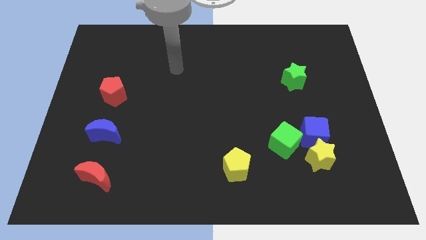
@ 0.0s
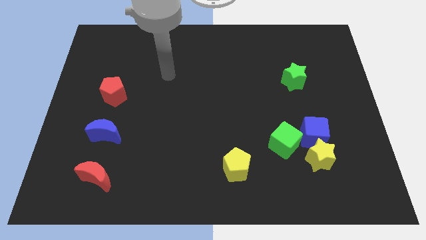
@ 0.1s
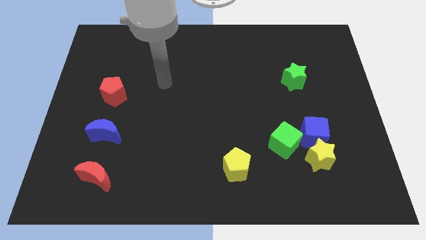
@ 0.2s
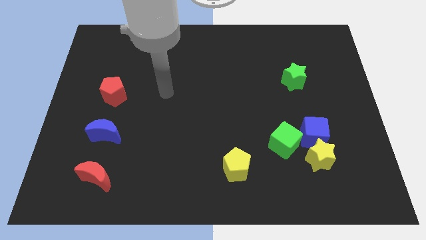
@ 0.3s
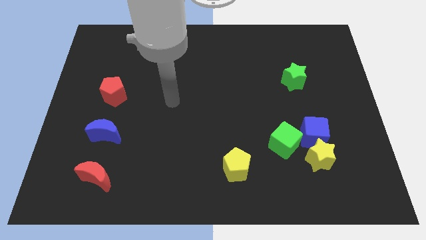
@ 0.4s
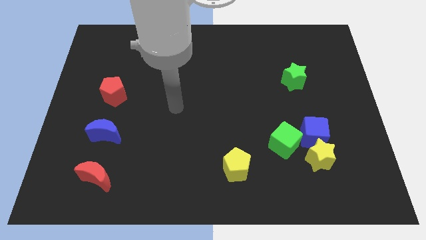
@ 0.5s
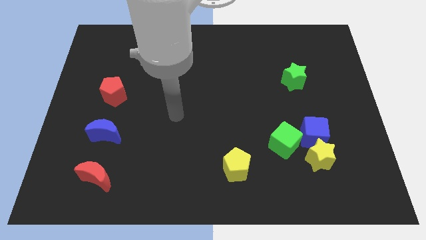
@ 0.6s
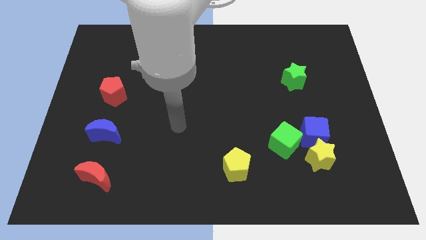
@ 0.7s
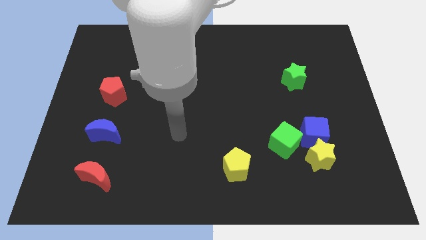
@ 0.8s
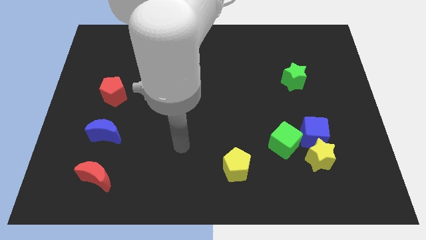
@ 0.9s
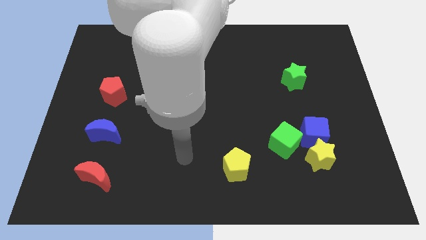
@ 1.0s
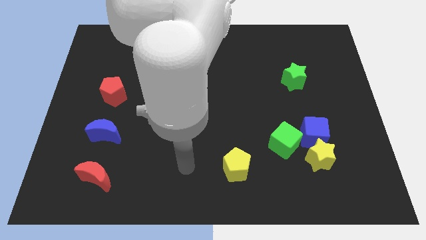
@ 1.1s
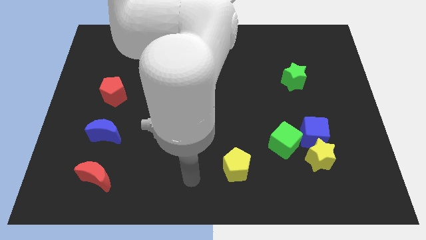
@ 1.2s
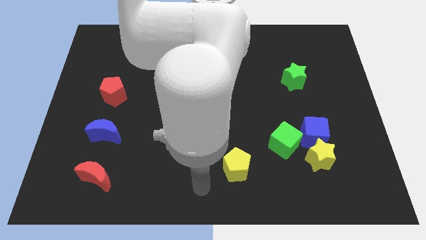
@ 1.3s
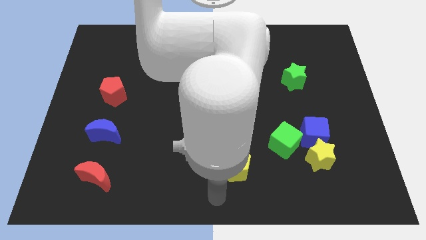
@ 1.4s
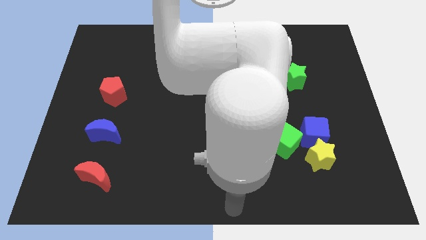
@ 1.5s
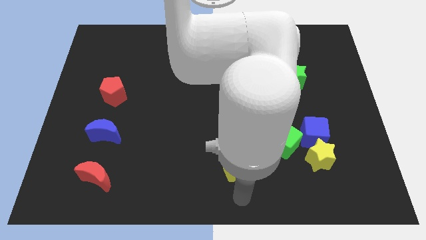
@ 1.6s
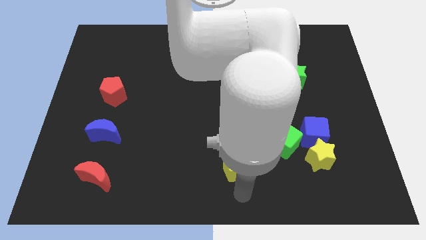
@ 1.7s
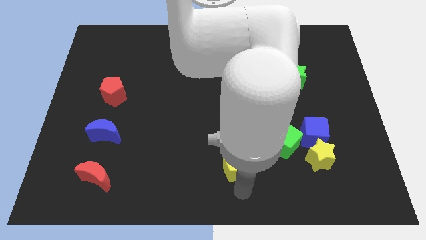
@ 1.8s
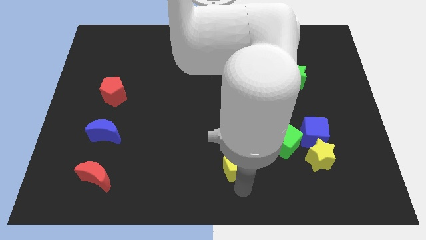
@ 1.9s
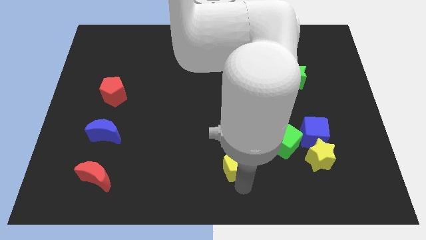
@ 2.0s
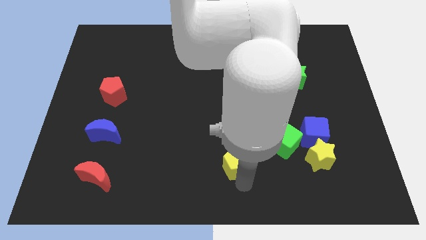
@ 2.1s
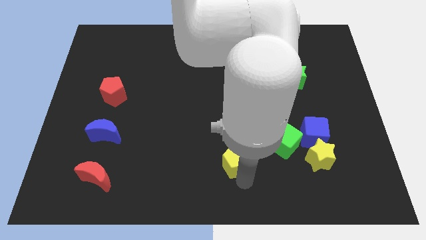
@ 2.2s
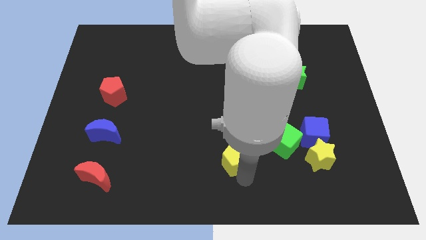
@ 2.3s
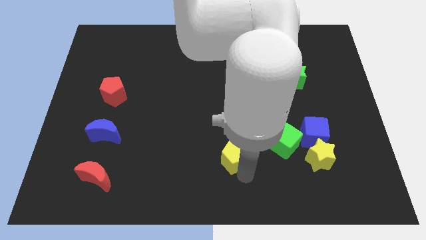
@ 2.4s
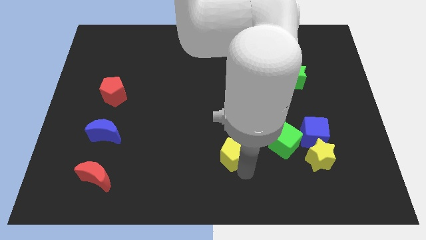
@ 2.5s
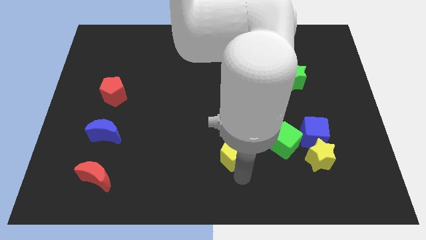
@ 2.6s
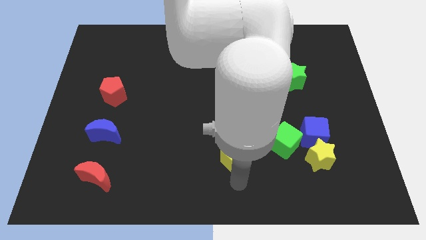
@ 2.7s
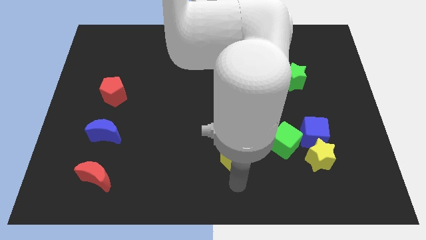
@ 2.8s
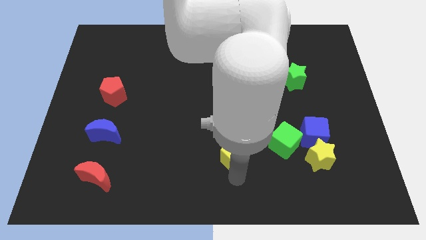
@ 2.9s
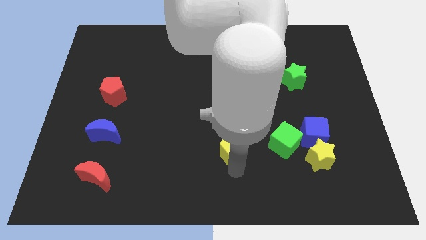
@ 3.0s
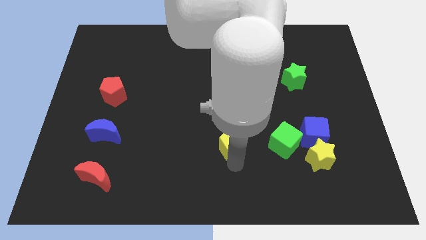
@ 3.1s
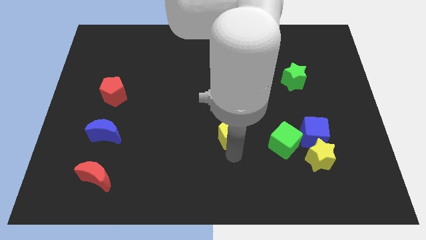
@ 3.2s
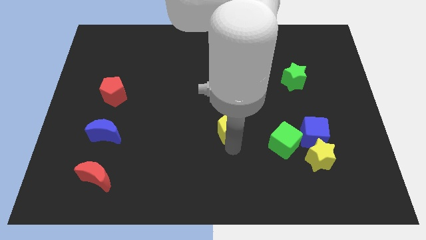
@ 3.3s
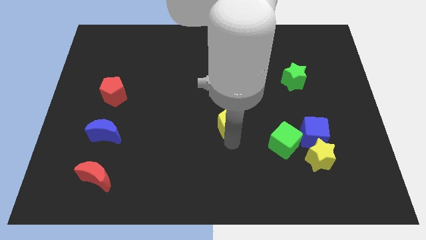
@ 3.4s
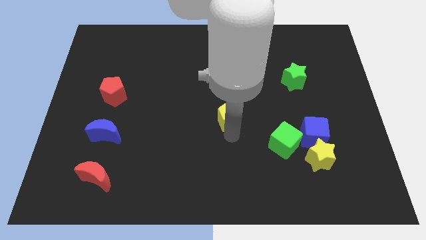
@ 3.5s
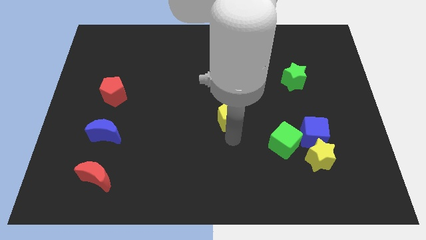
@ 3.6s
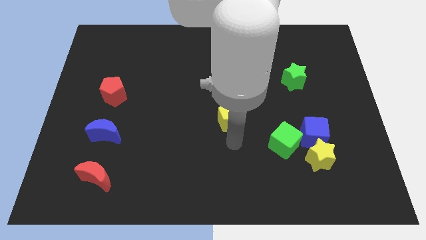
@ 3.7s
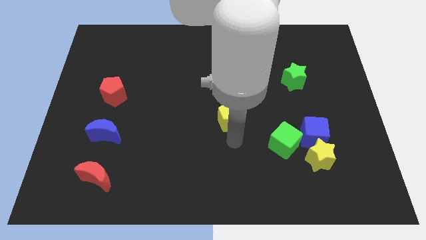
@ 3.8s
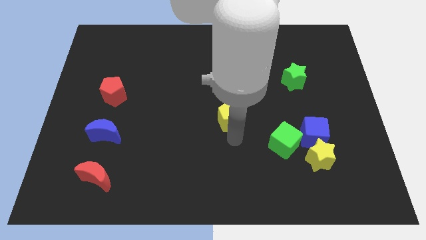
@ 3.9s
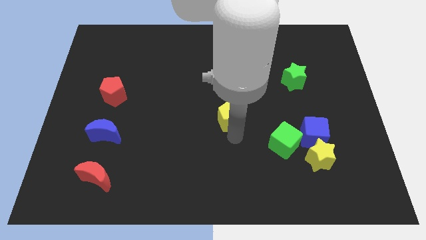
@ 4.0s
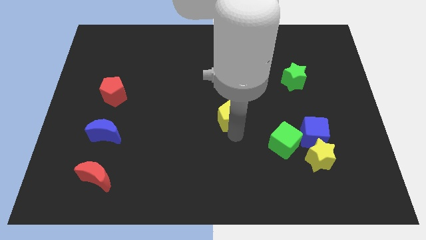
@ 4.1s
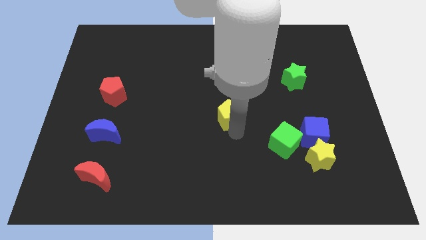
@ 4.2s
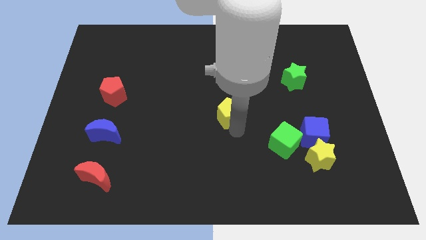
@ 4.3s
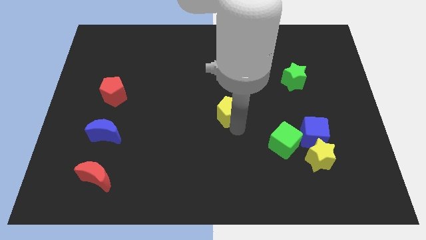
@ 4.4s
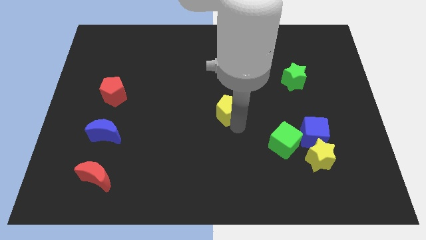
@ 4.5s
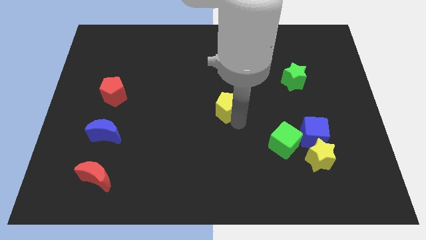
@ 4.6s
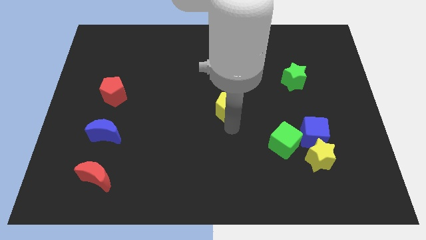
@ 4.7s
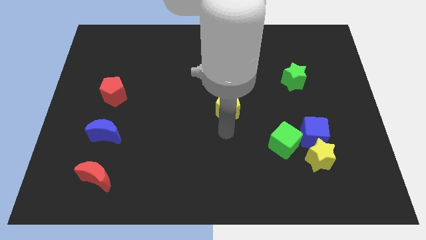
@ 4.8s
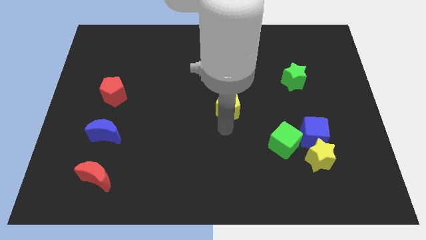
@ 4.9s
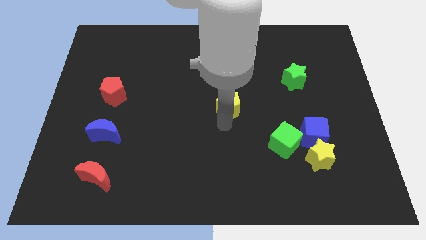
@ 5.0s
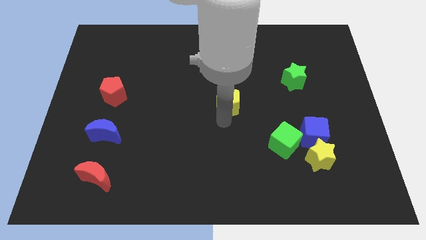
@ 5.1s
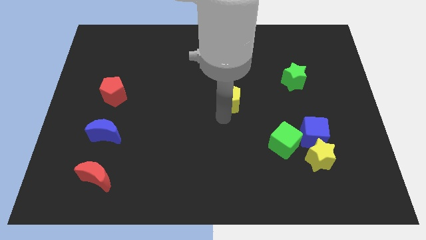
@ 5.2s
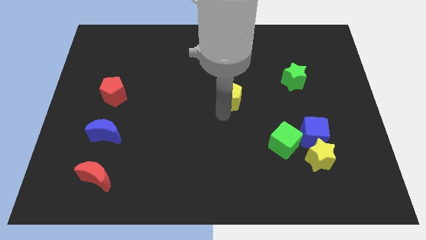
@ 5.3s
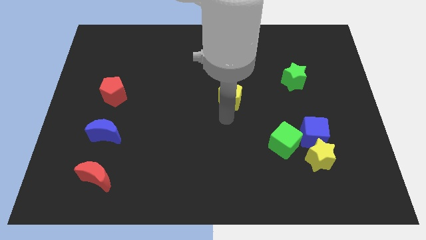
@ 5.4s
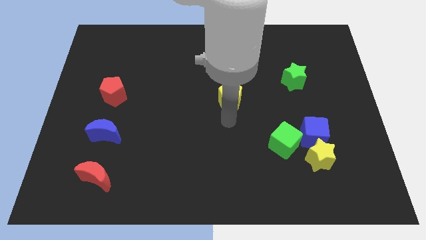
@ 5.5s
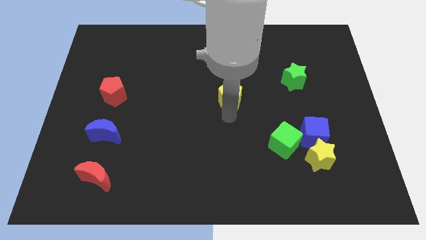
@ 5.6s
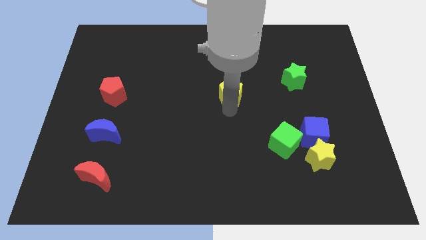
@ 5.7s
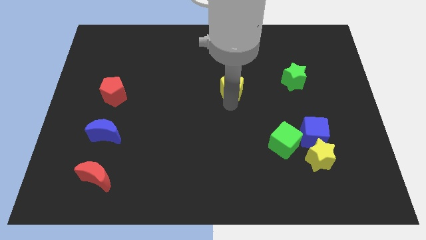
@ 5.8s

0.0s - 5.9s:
slide the yellow pentagon up

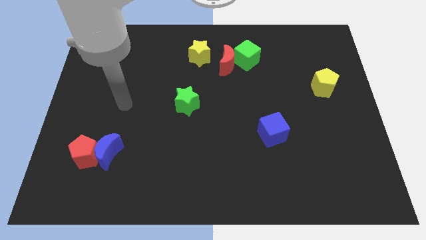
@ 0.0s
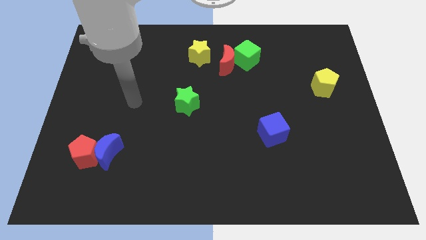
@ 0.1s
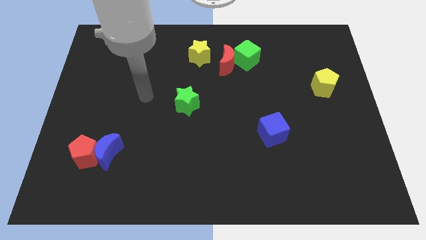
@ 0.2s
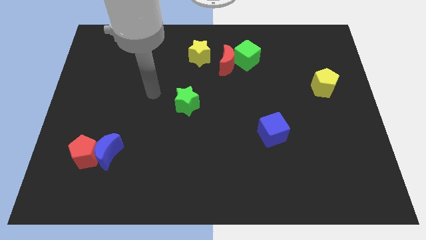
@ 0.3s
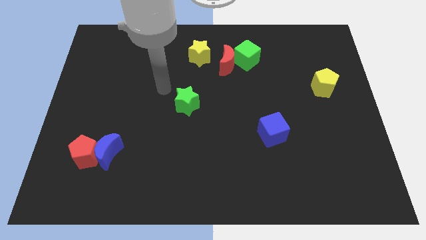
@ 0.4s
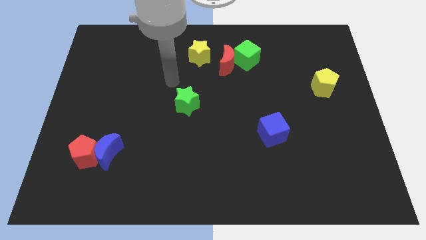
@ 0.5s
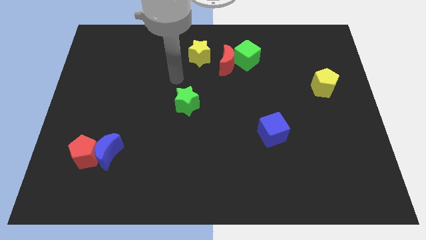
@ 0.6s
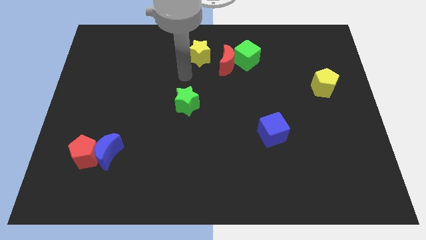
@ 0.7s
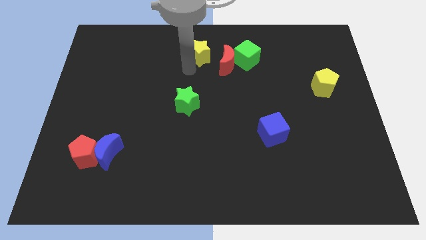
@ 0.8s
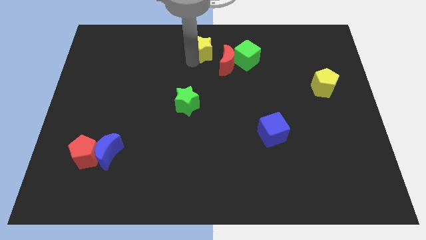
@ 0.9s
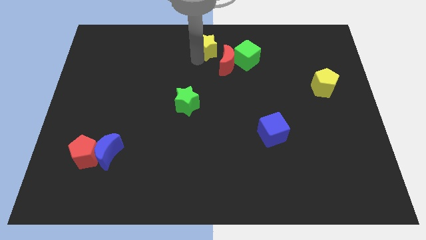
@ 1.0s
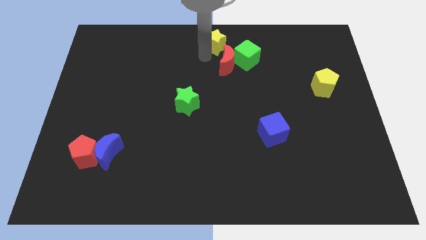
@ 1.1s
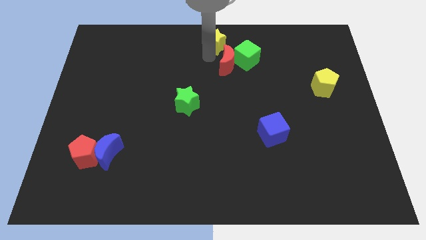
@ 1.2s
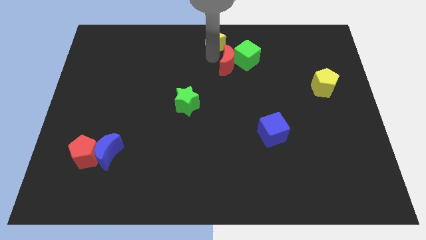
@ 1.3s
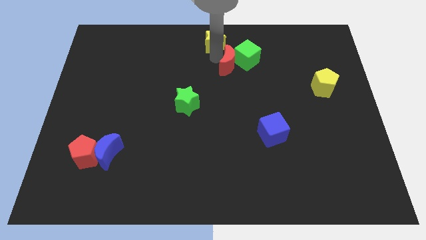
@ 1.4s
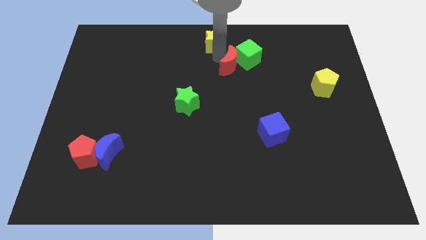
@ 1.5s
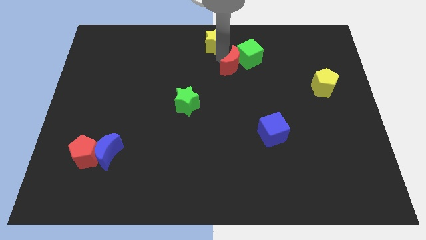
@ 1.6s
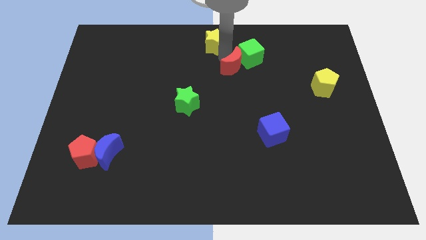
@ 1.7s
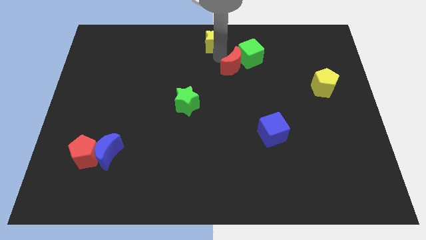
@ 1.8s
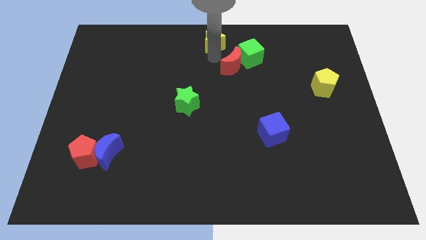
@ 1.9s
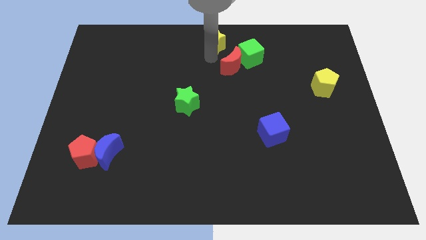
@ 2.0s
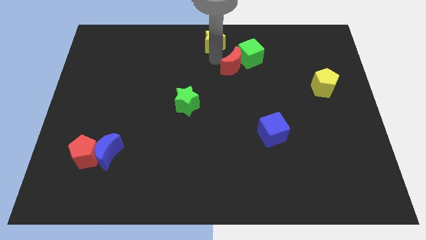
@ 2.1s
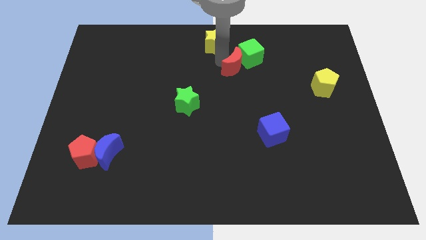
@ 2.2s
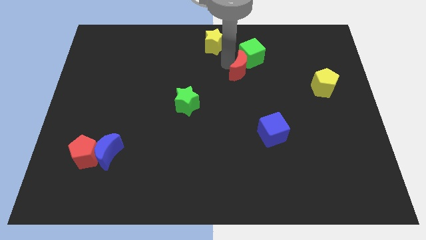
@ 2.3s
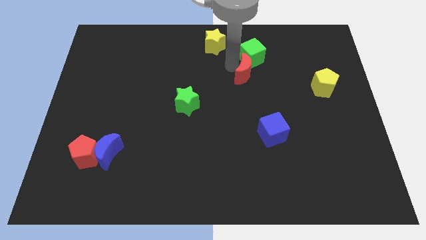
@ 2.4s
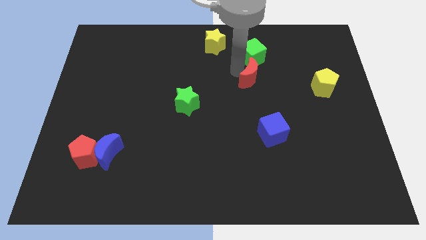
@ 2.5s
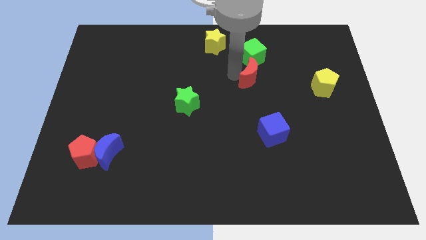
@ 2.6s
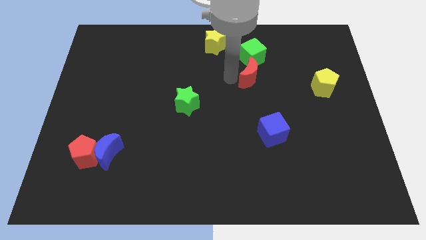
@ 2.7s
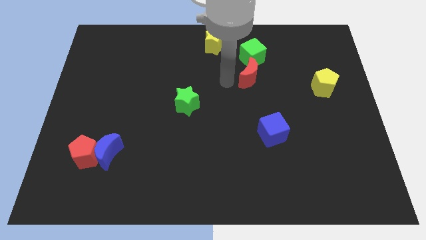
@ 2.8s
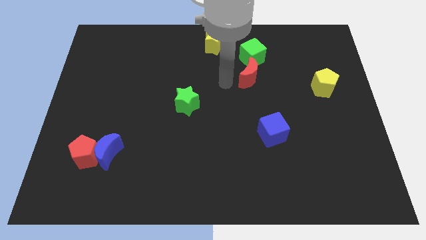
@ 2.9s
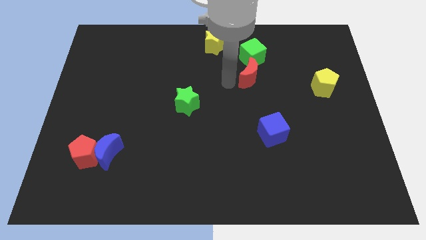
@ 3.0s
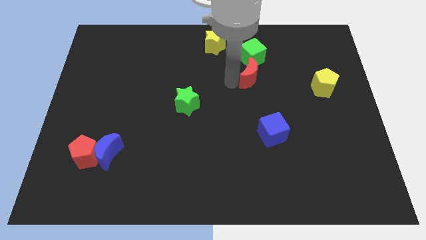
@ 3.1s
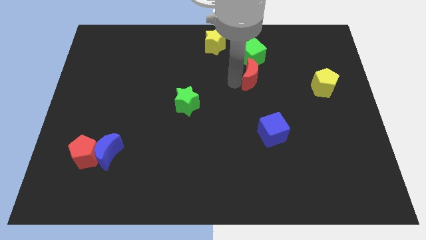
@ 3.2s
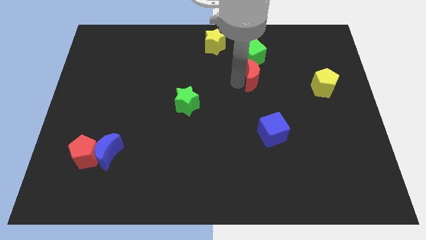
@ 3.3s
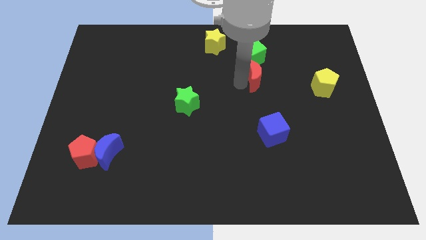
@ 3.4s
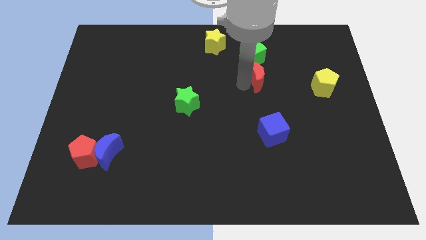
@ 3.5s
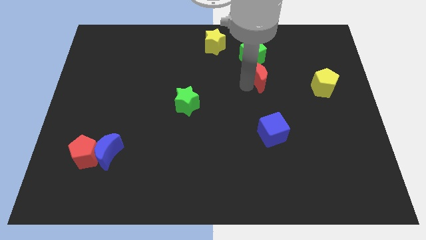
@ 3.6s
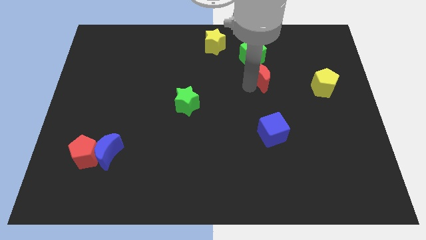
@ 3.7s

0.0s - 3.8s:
push the red moon a little to the right
